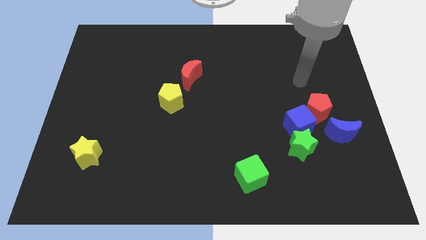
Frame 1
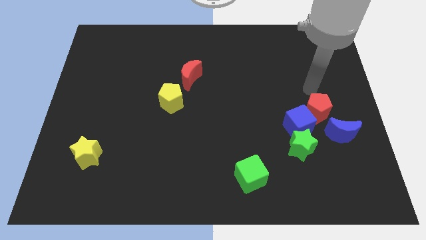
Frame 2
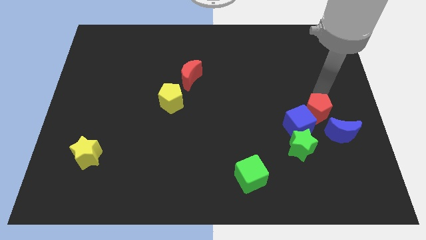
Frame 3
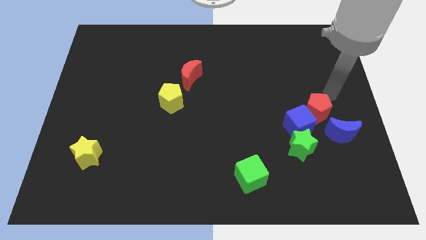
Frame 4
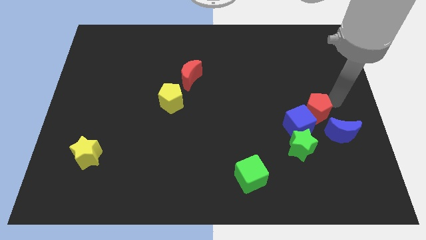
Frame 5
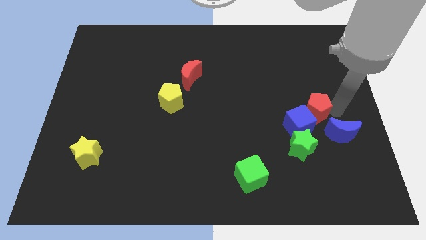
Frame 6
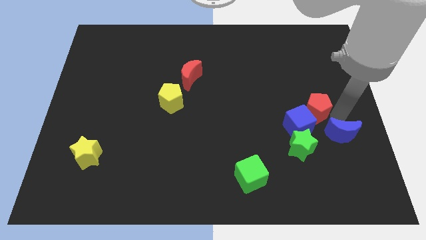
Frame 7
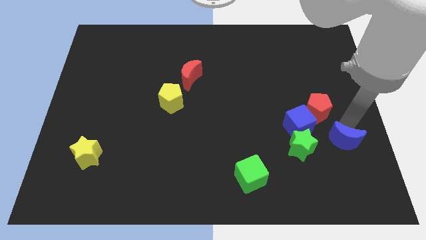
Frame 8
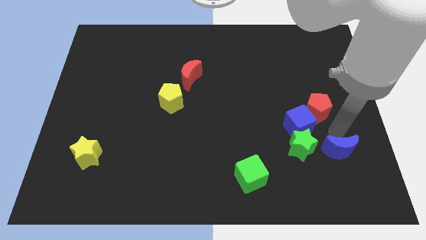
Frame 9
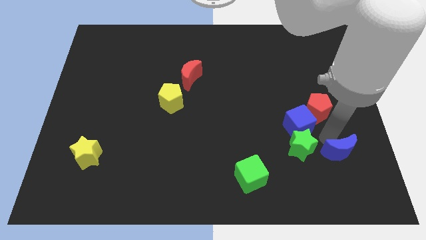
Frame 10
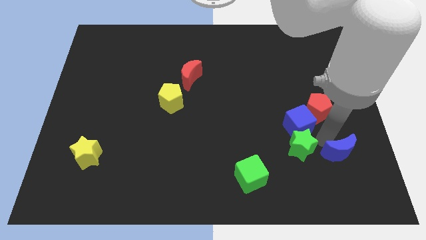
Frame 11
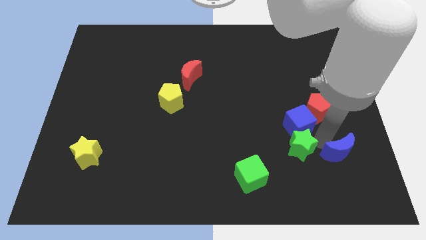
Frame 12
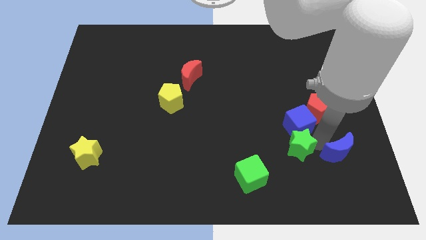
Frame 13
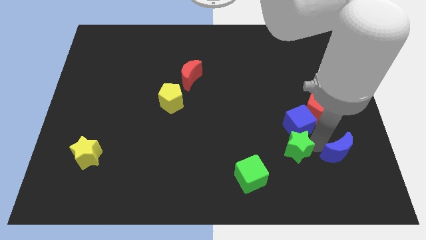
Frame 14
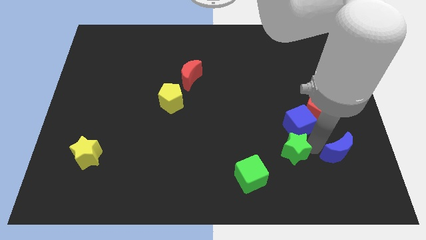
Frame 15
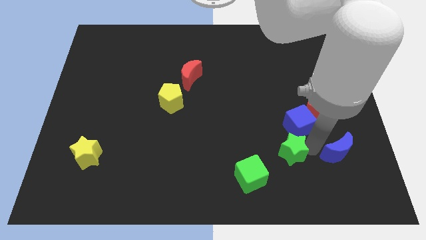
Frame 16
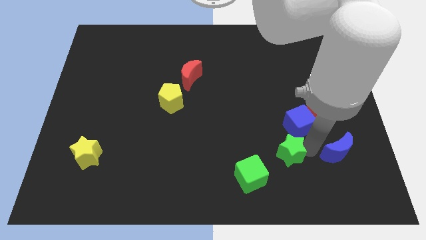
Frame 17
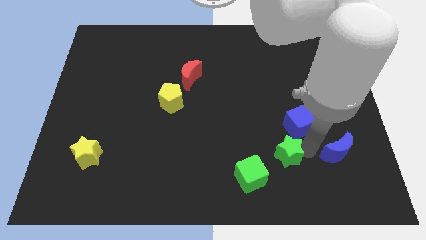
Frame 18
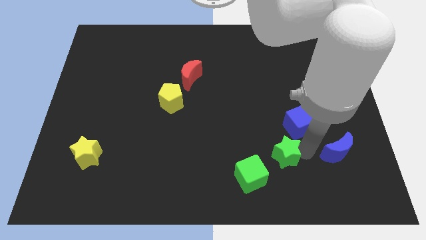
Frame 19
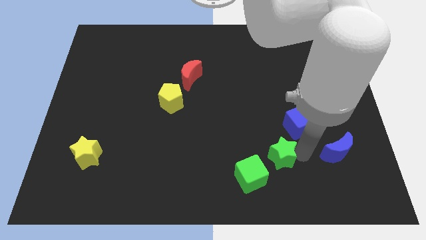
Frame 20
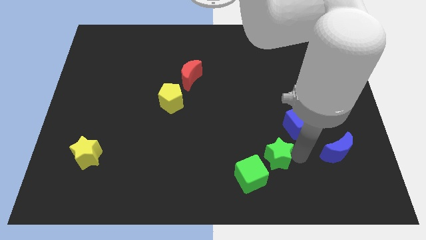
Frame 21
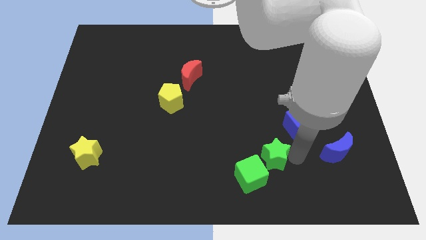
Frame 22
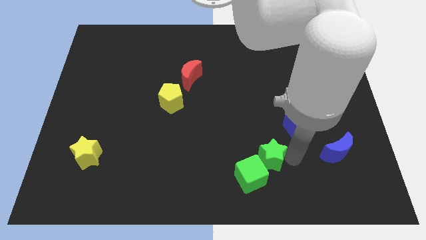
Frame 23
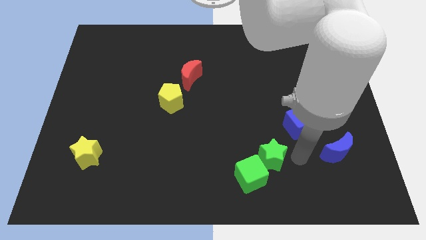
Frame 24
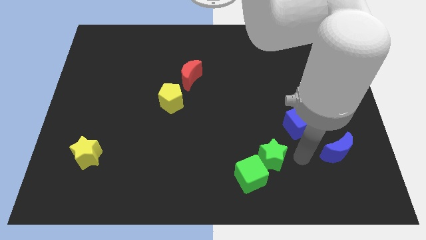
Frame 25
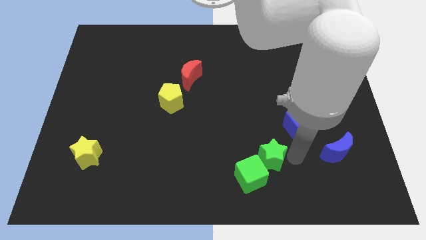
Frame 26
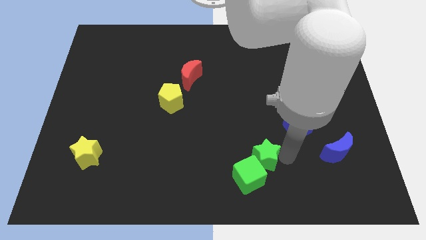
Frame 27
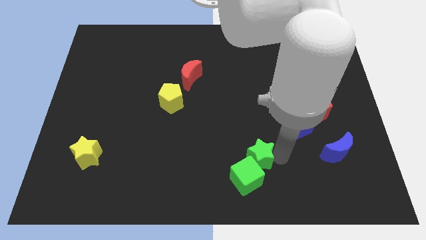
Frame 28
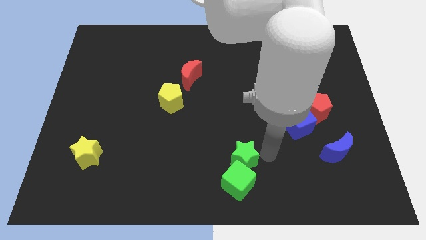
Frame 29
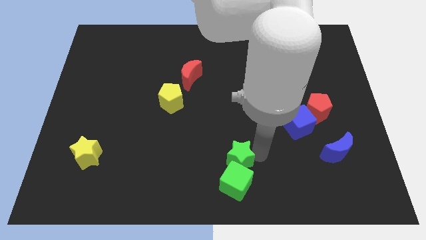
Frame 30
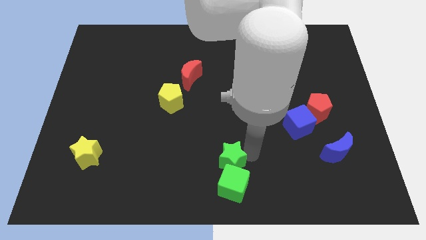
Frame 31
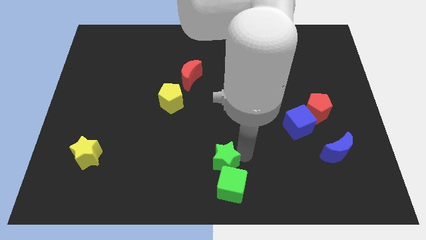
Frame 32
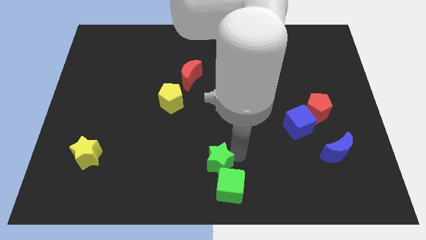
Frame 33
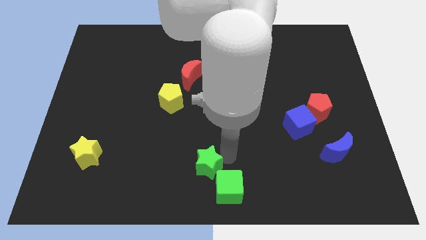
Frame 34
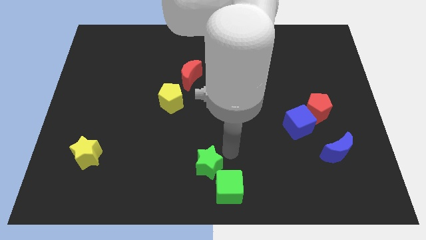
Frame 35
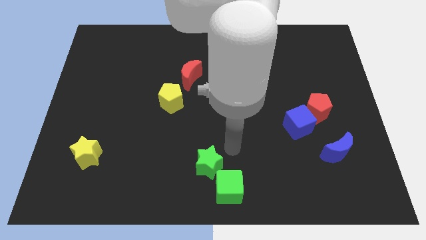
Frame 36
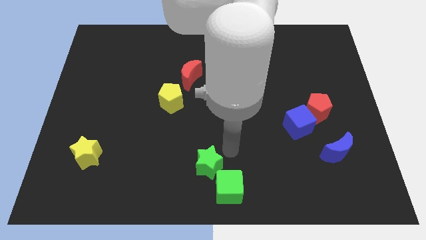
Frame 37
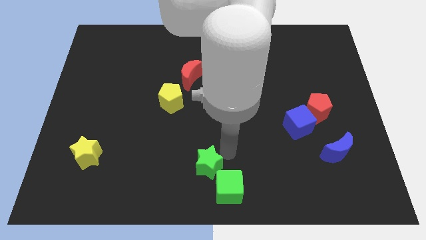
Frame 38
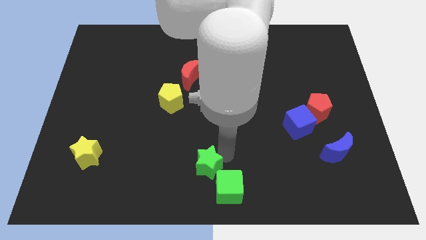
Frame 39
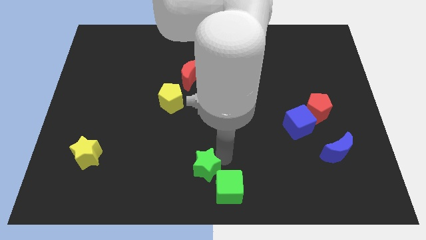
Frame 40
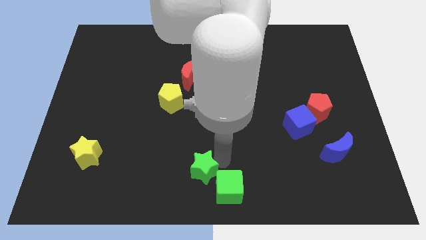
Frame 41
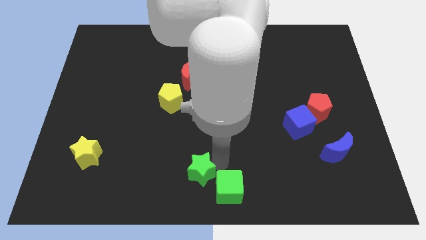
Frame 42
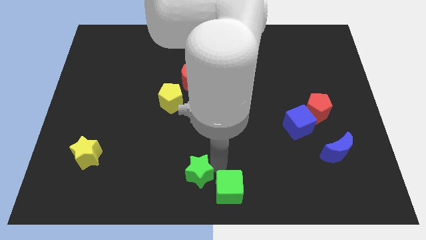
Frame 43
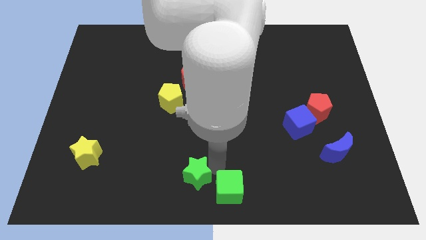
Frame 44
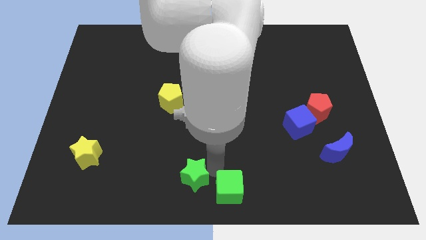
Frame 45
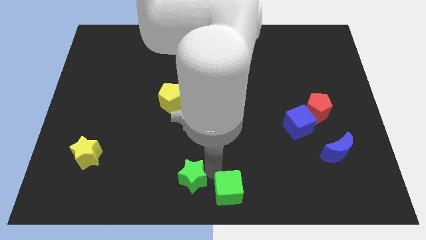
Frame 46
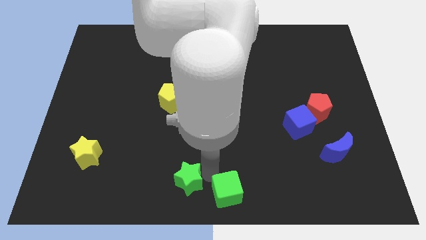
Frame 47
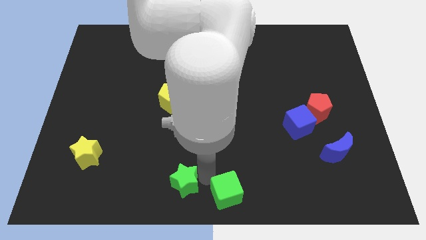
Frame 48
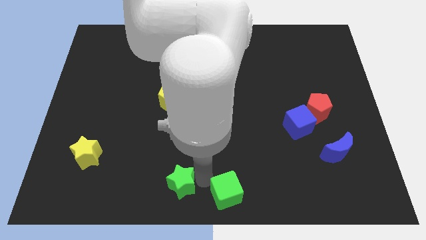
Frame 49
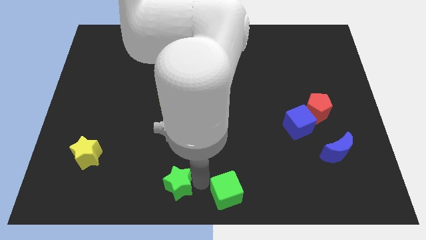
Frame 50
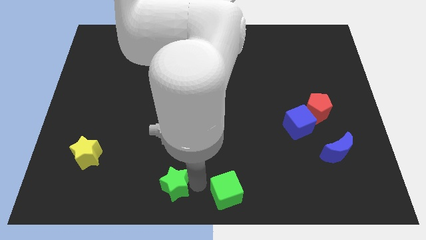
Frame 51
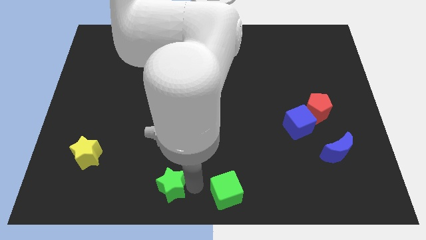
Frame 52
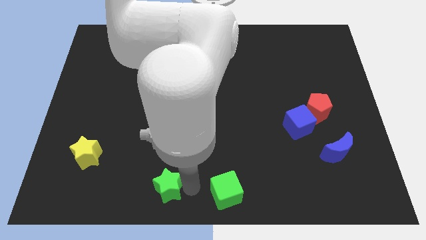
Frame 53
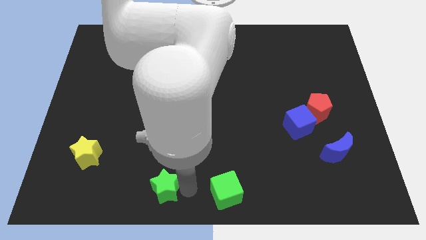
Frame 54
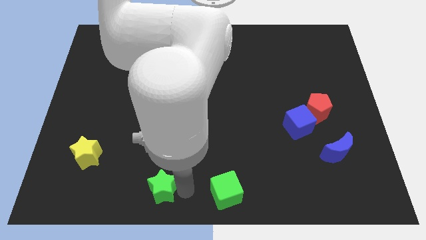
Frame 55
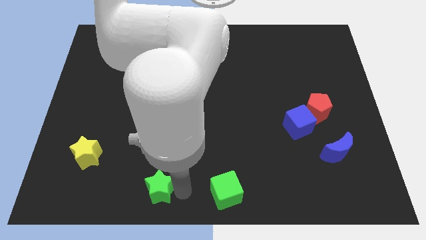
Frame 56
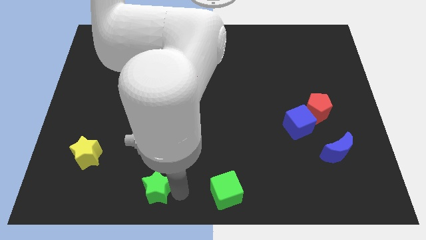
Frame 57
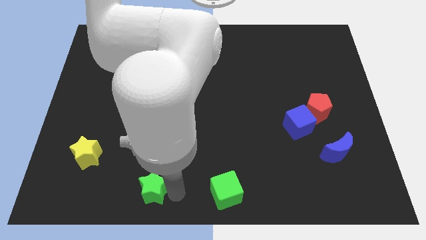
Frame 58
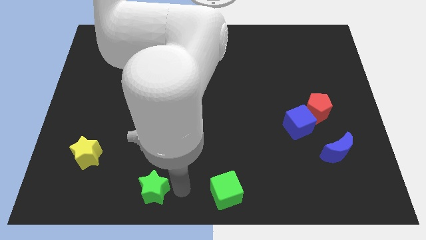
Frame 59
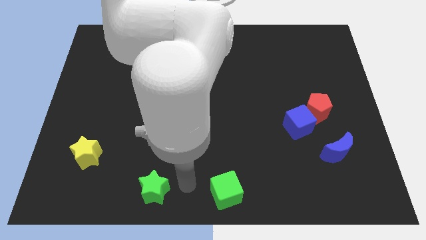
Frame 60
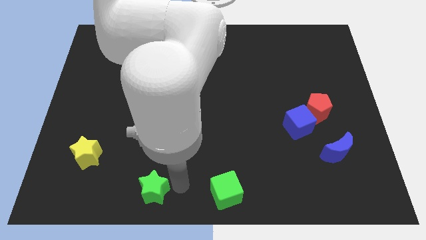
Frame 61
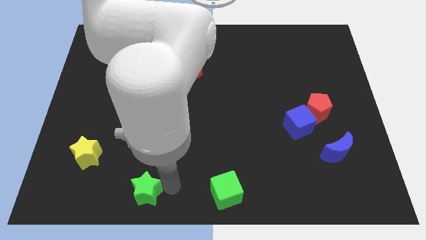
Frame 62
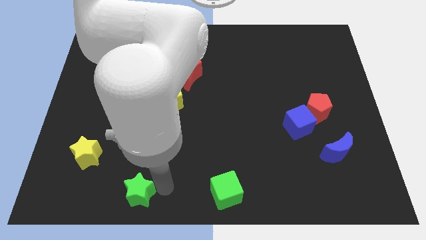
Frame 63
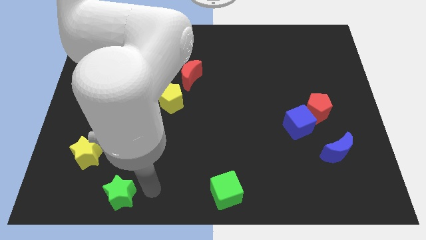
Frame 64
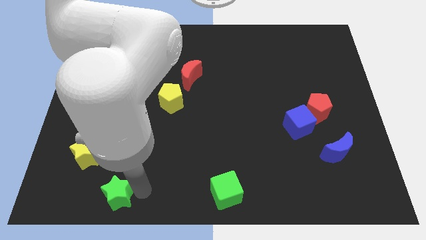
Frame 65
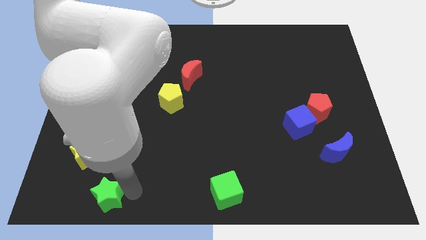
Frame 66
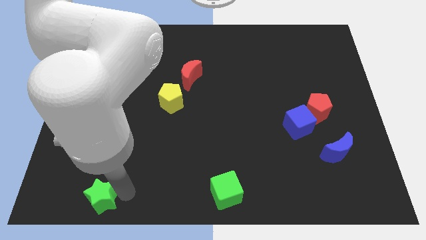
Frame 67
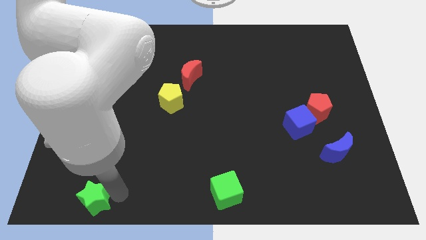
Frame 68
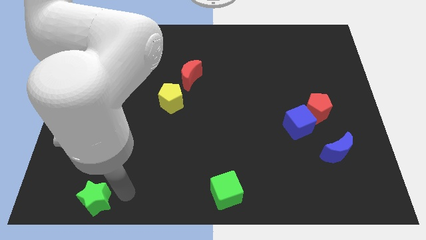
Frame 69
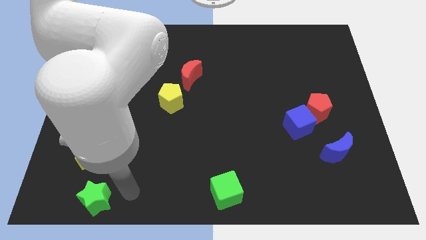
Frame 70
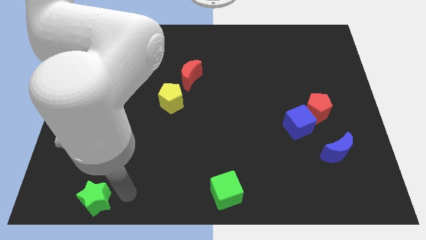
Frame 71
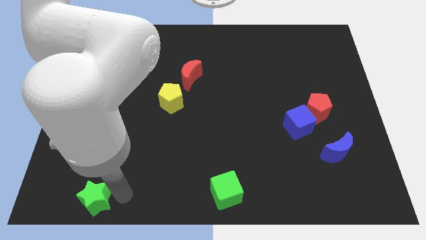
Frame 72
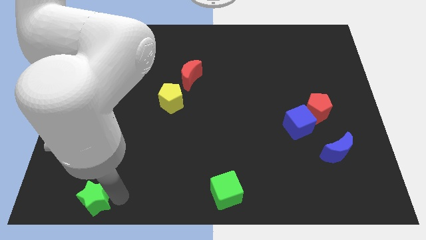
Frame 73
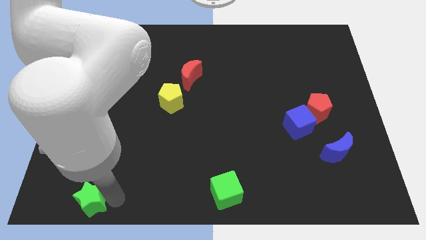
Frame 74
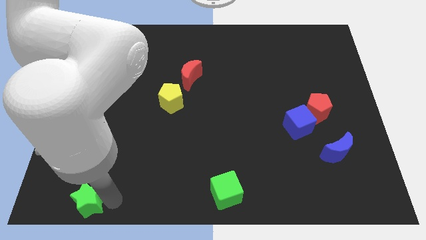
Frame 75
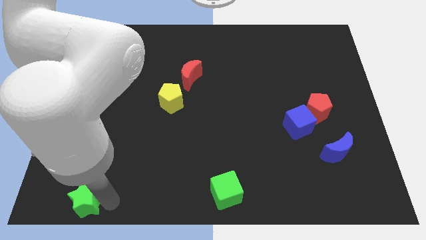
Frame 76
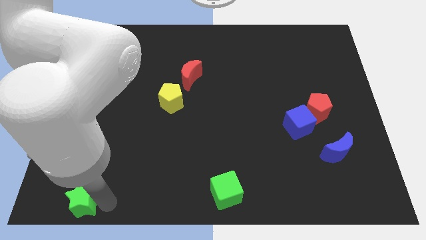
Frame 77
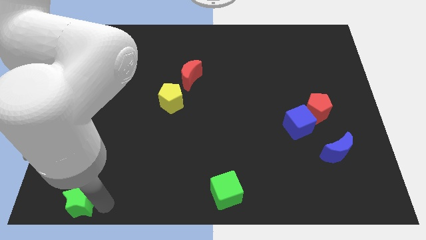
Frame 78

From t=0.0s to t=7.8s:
move the green star to the bottom left corner
